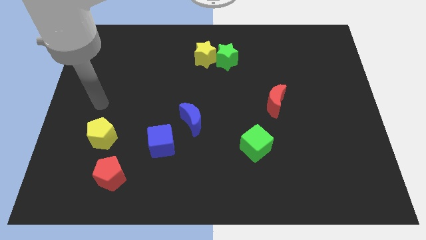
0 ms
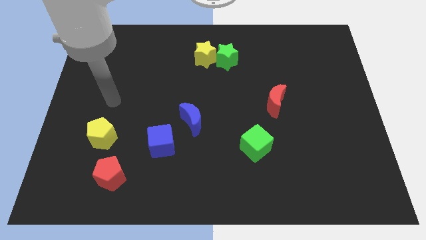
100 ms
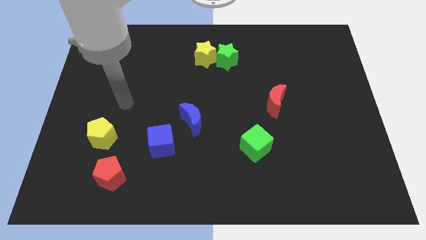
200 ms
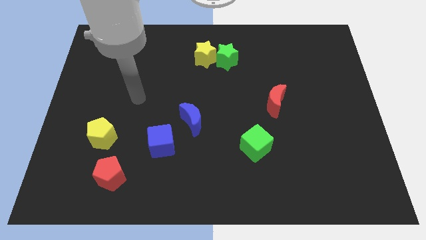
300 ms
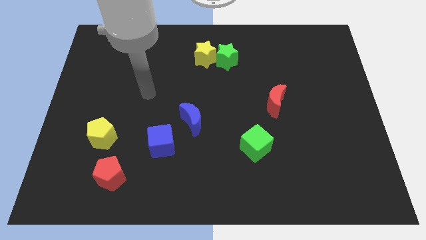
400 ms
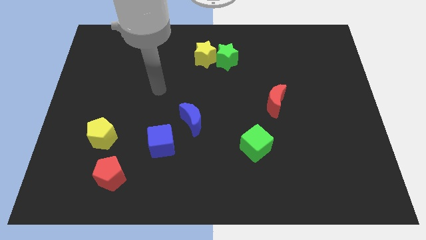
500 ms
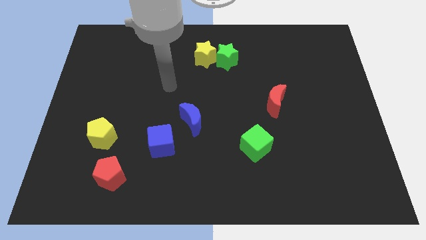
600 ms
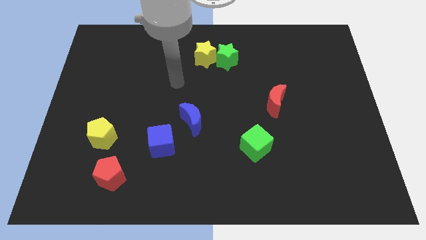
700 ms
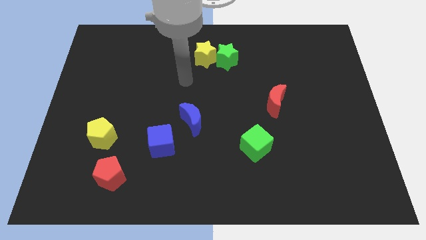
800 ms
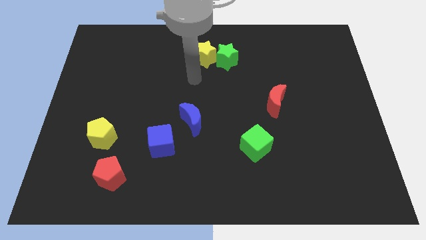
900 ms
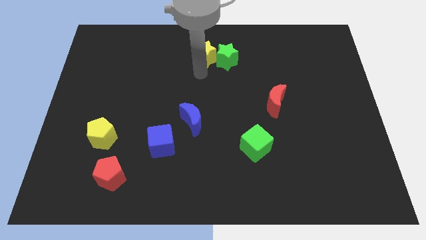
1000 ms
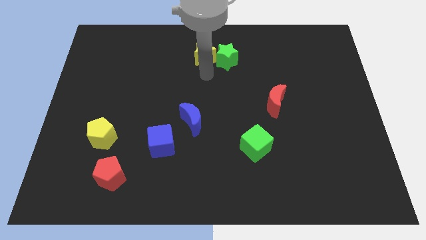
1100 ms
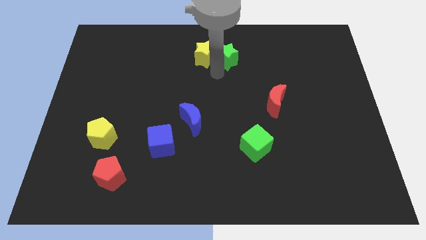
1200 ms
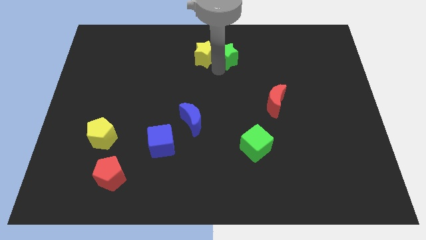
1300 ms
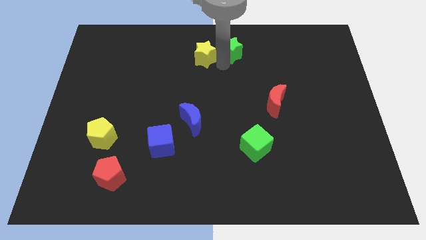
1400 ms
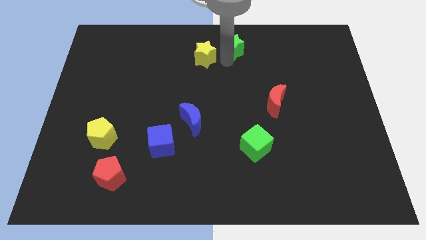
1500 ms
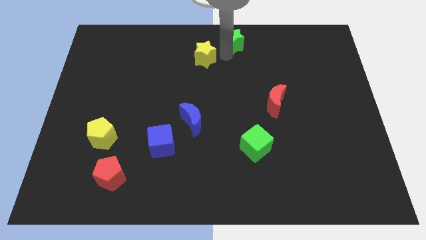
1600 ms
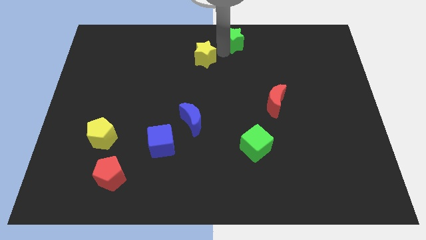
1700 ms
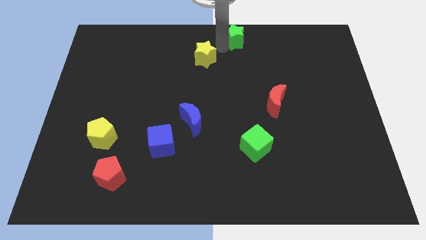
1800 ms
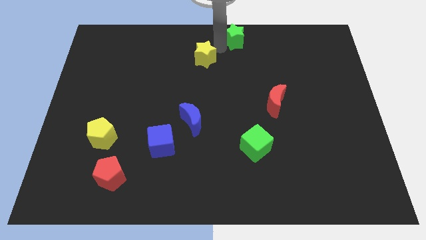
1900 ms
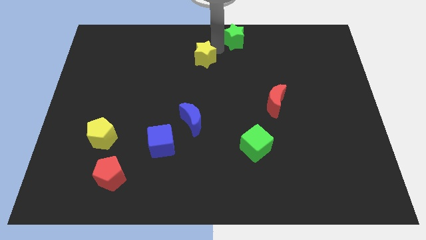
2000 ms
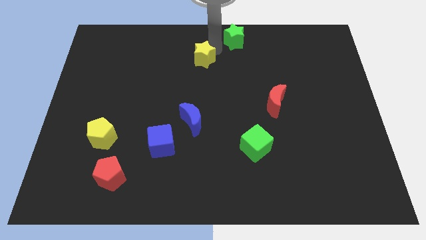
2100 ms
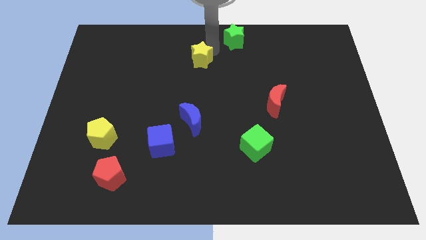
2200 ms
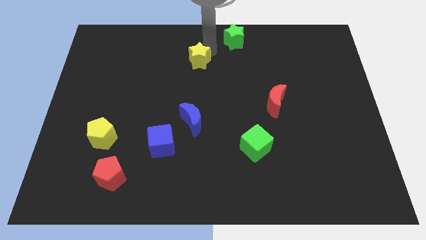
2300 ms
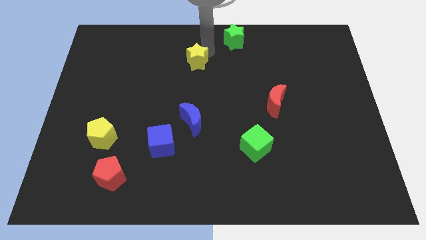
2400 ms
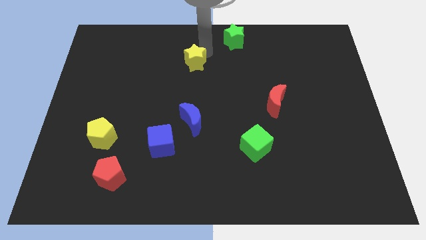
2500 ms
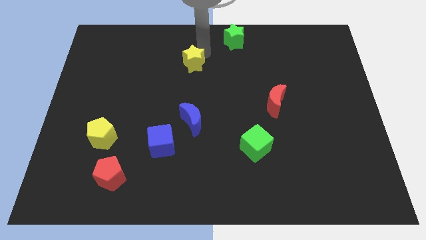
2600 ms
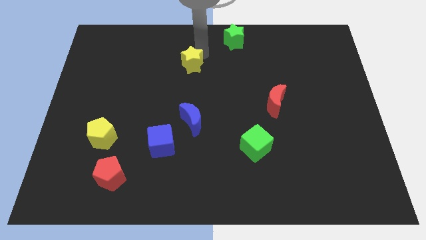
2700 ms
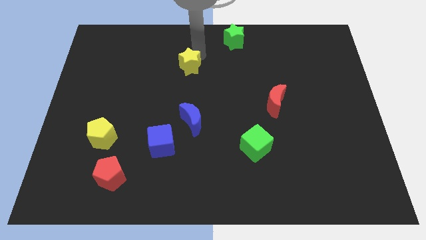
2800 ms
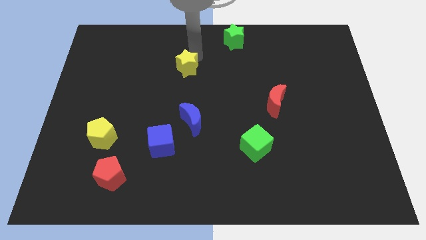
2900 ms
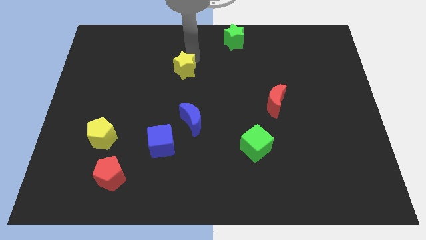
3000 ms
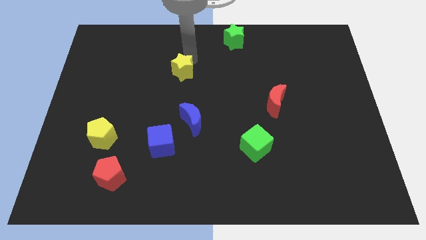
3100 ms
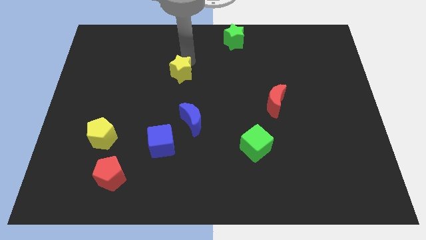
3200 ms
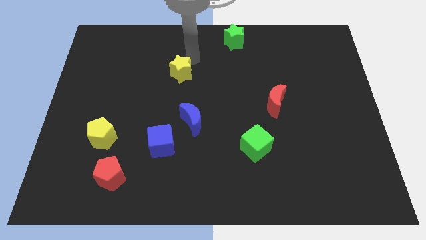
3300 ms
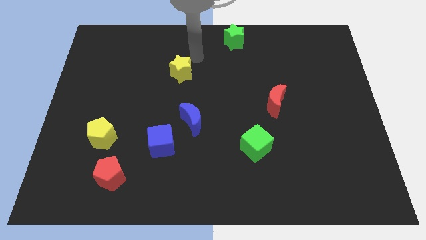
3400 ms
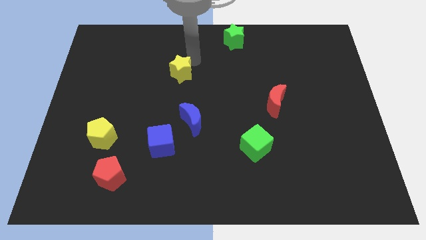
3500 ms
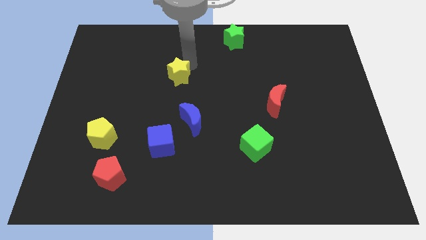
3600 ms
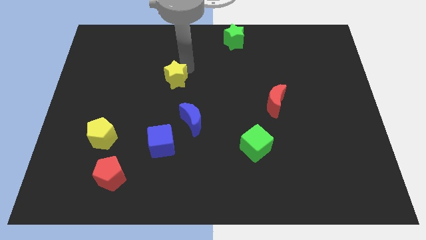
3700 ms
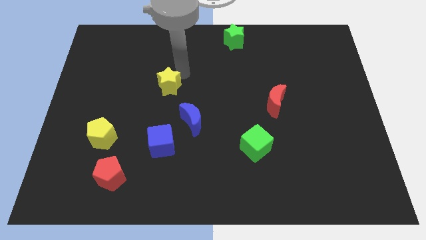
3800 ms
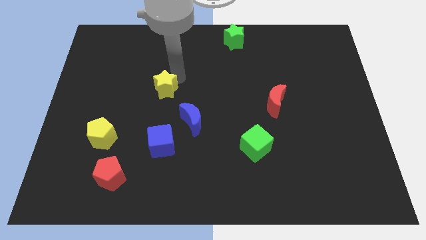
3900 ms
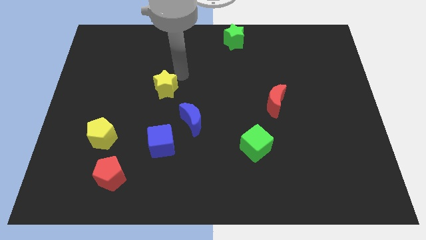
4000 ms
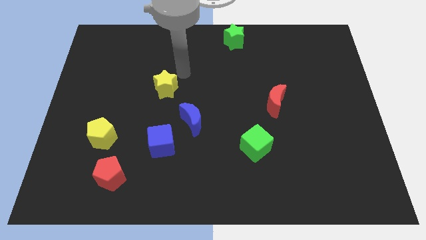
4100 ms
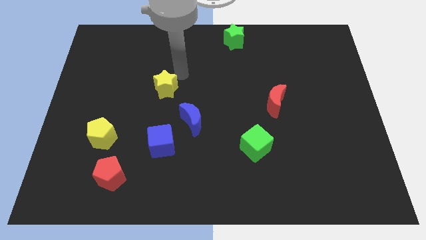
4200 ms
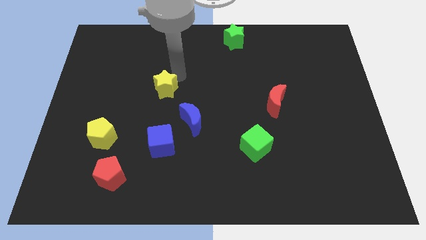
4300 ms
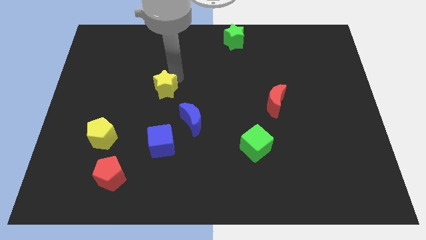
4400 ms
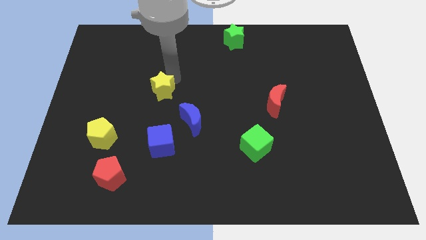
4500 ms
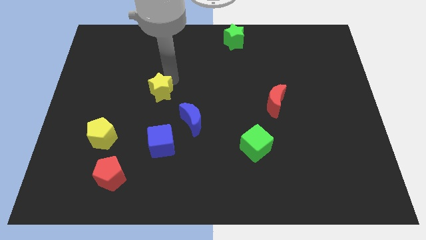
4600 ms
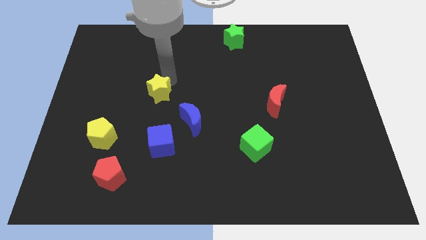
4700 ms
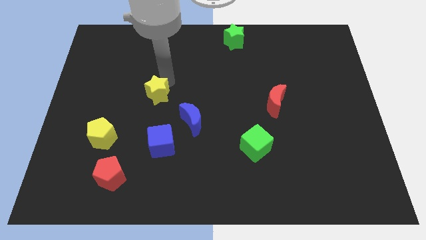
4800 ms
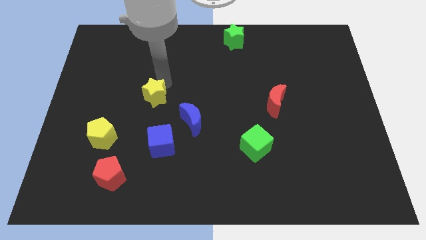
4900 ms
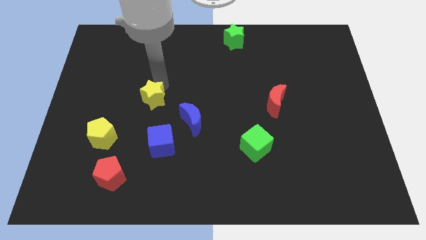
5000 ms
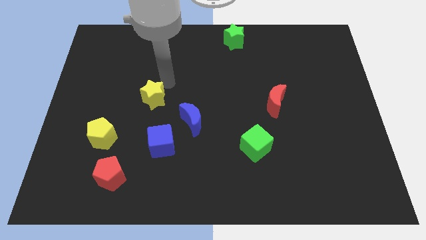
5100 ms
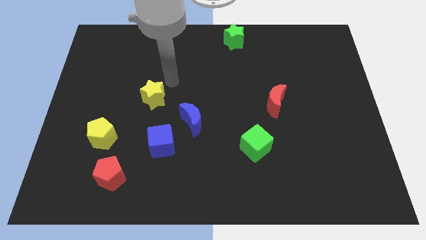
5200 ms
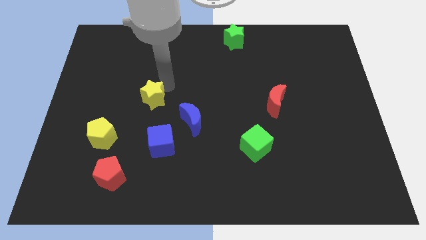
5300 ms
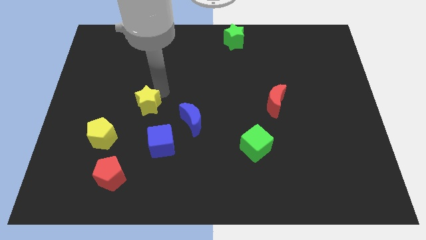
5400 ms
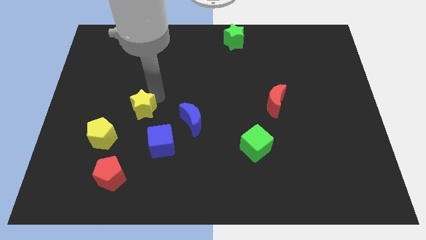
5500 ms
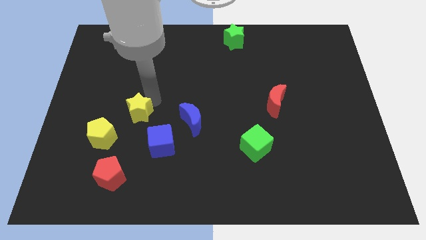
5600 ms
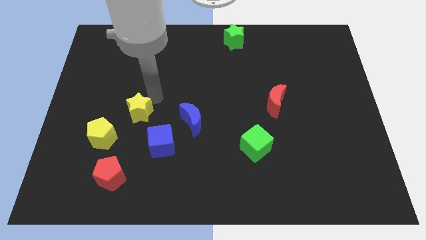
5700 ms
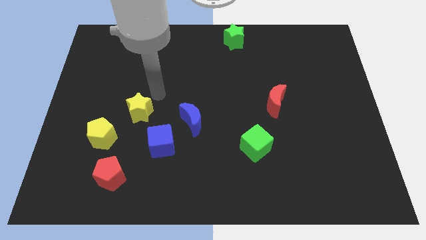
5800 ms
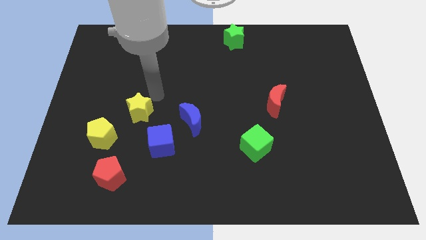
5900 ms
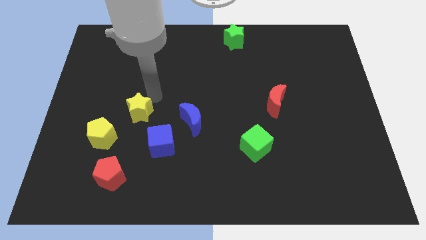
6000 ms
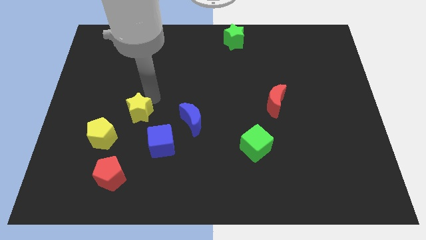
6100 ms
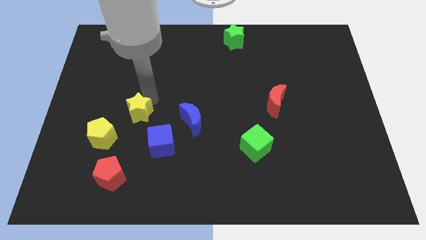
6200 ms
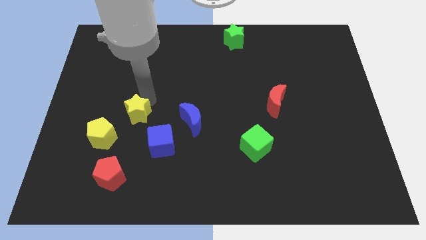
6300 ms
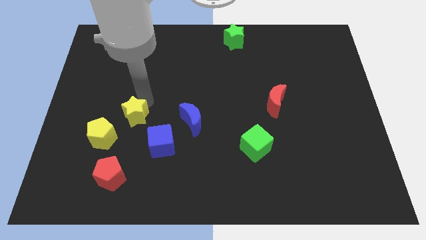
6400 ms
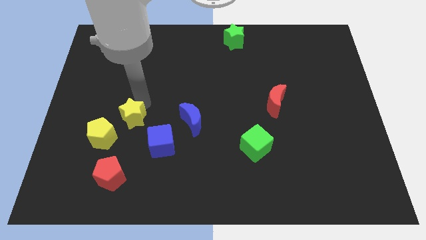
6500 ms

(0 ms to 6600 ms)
put the yellow star above the red pentagon

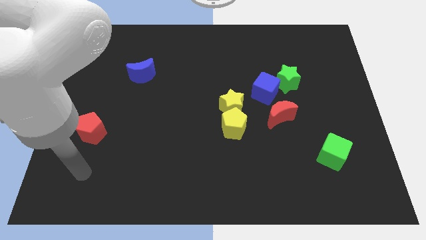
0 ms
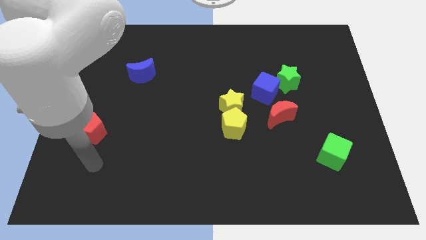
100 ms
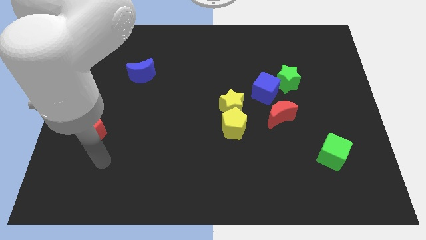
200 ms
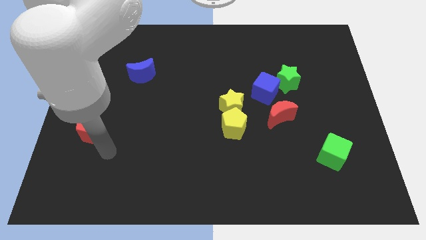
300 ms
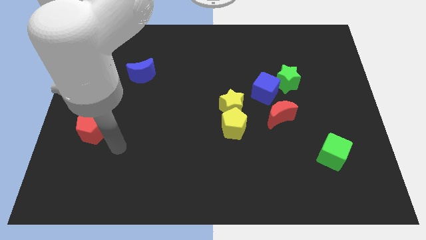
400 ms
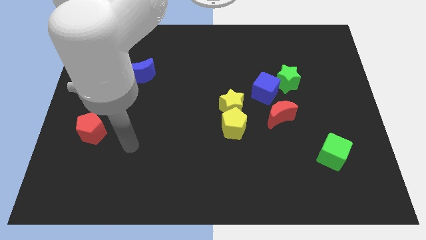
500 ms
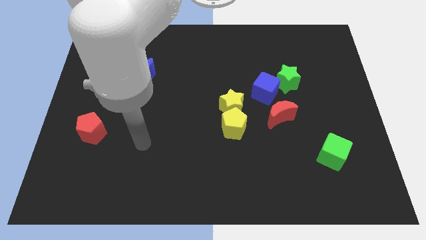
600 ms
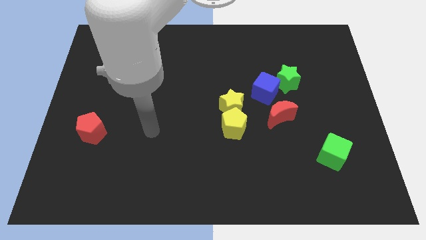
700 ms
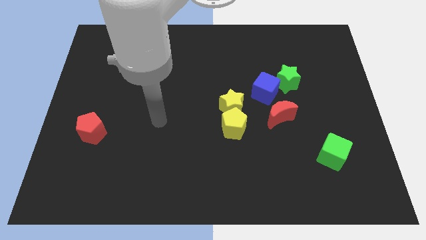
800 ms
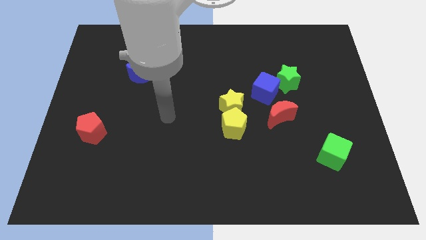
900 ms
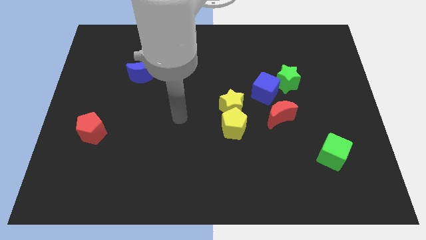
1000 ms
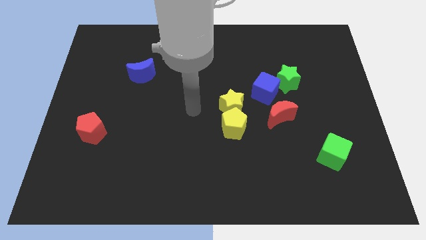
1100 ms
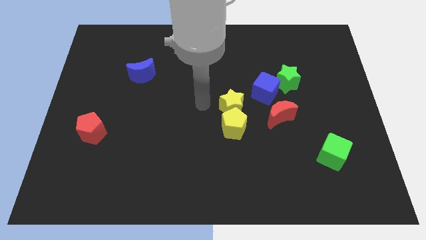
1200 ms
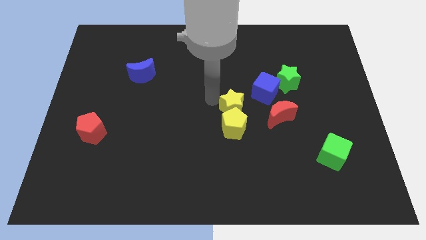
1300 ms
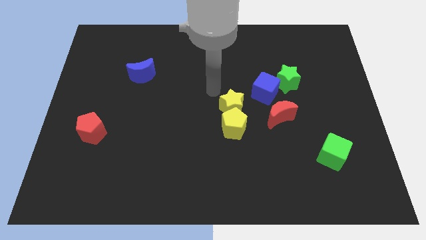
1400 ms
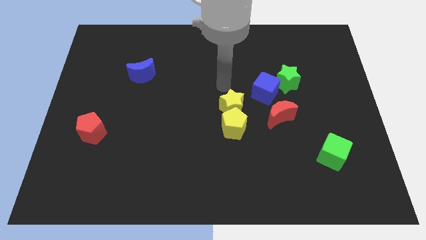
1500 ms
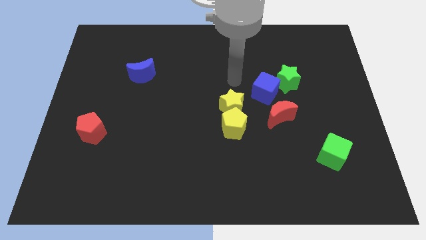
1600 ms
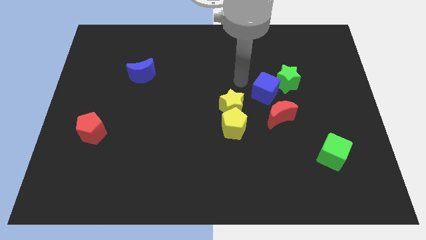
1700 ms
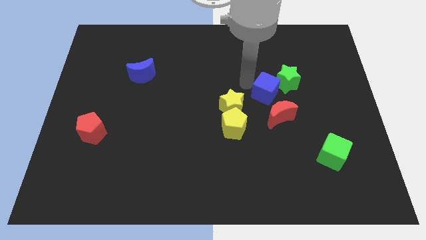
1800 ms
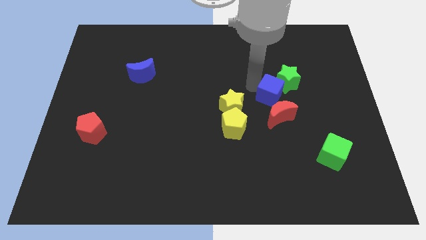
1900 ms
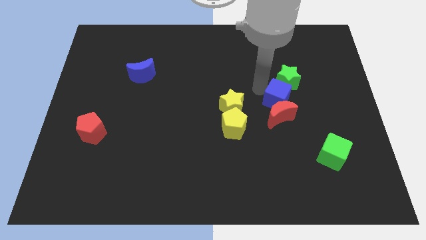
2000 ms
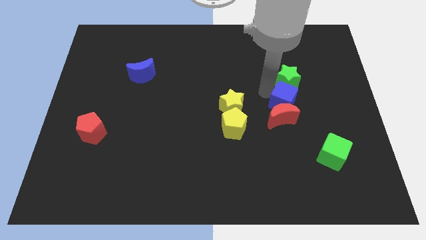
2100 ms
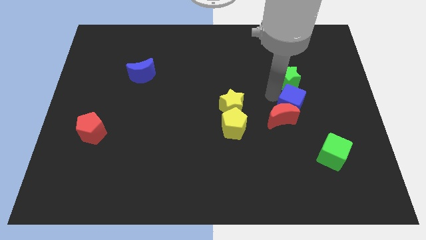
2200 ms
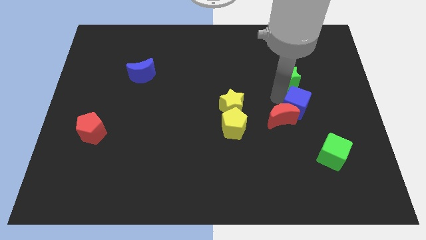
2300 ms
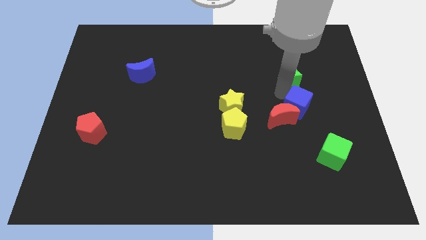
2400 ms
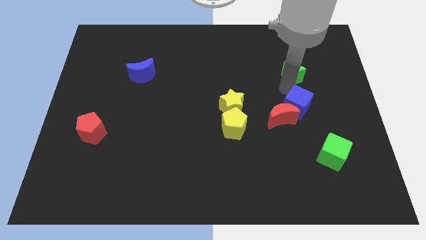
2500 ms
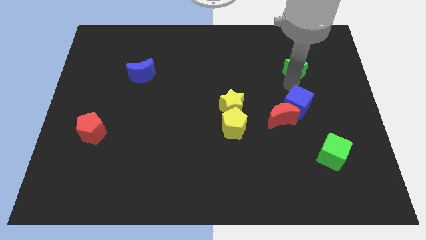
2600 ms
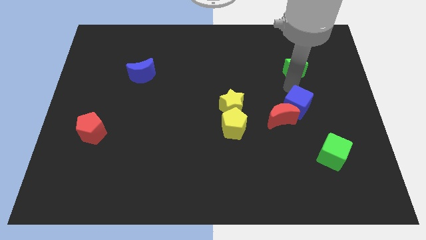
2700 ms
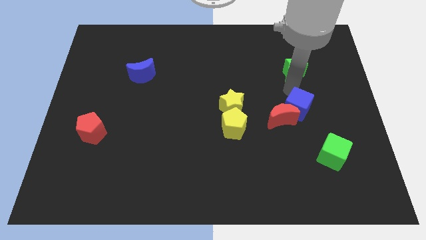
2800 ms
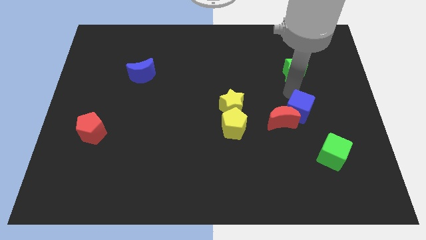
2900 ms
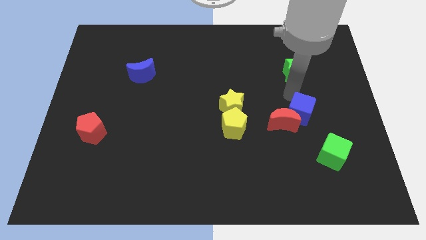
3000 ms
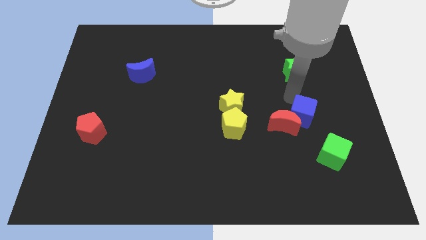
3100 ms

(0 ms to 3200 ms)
move the blue cube to the top left of the green cube
